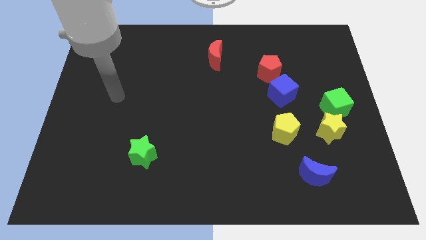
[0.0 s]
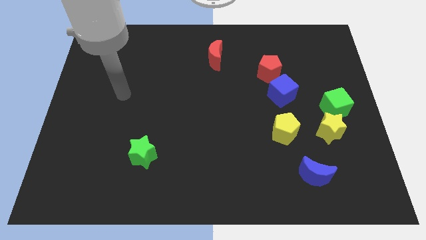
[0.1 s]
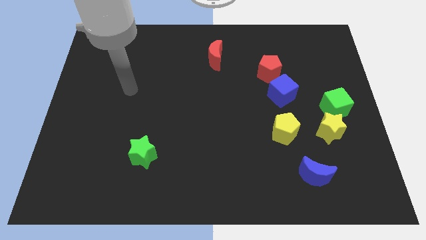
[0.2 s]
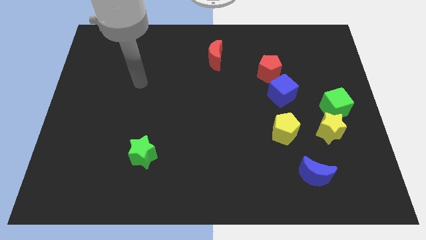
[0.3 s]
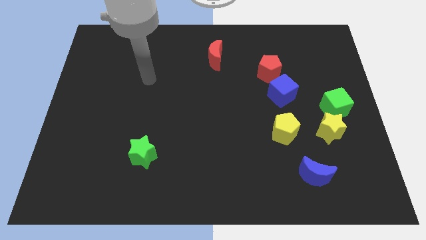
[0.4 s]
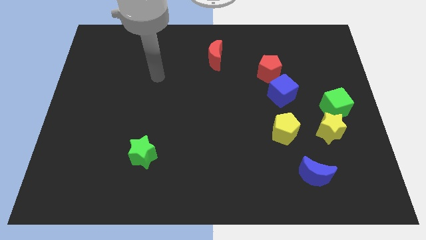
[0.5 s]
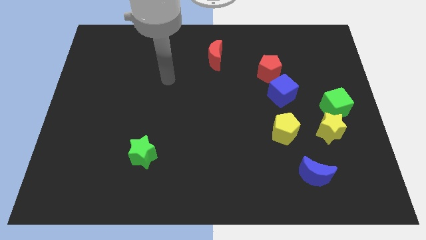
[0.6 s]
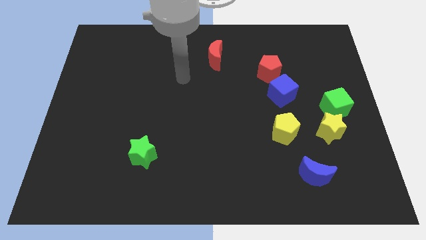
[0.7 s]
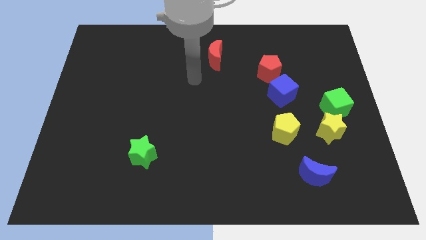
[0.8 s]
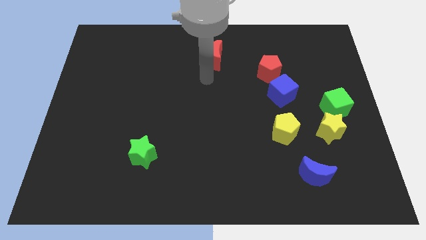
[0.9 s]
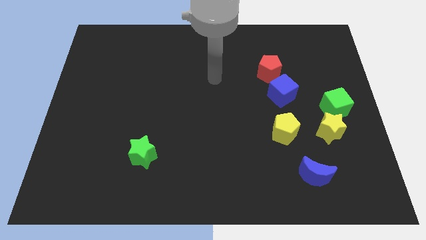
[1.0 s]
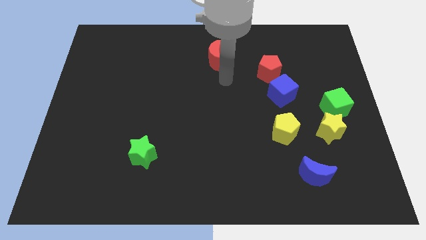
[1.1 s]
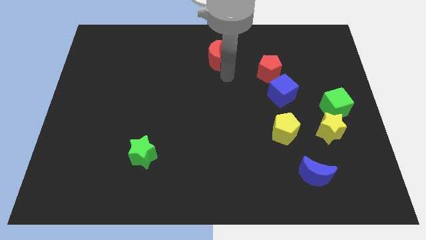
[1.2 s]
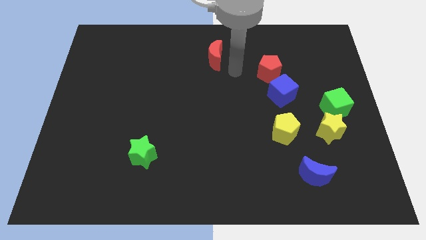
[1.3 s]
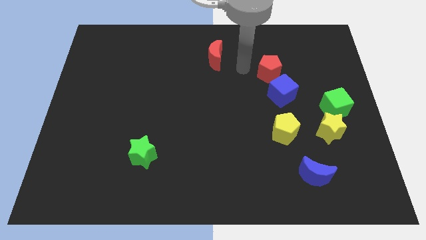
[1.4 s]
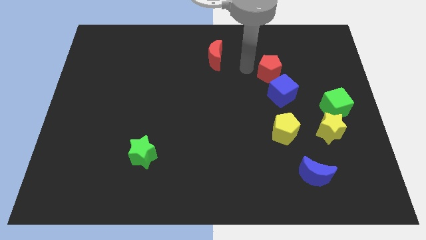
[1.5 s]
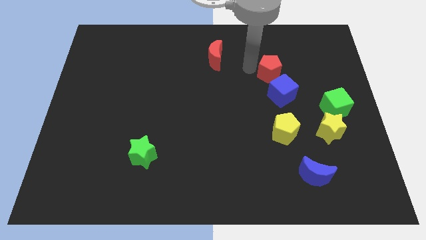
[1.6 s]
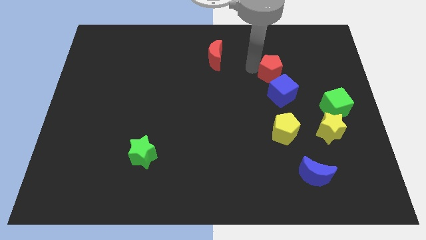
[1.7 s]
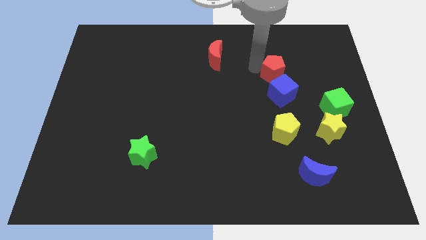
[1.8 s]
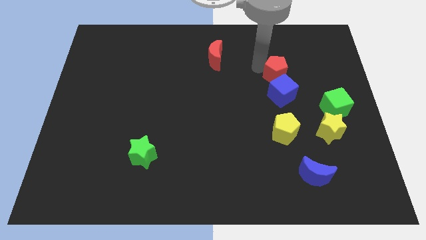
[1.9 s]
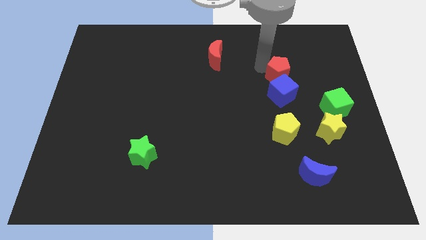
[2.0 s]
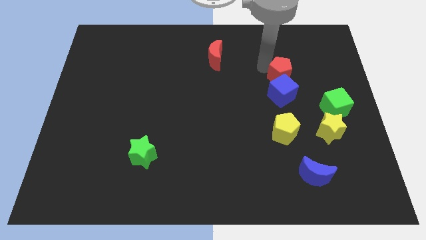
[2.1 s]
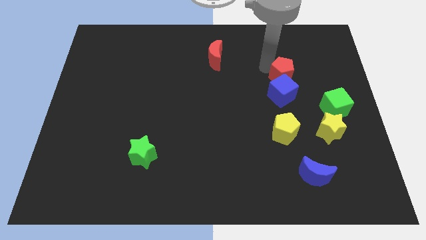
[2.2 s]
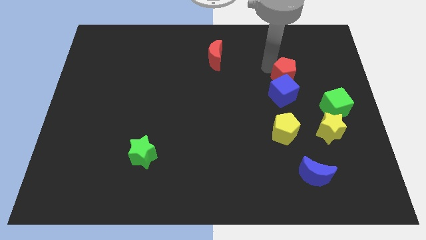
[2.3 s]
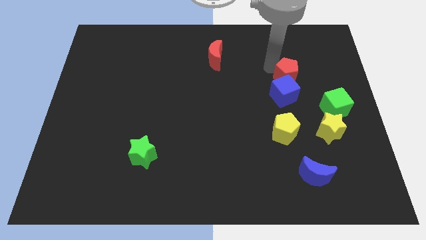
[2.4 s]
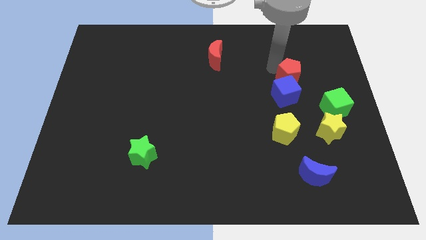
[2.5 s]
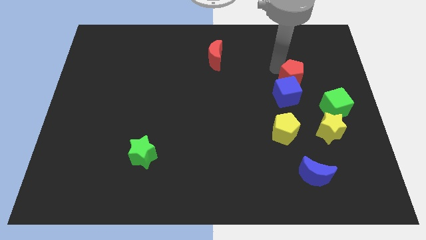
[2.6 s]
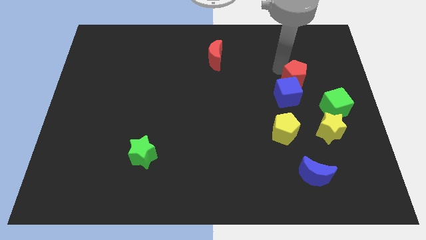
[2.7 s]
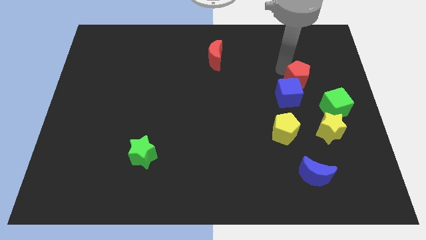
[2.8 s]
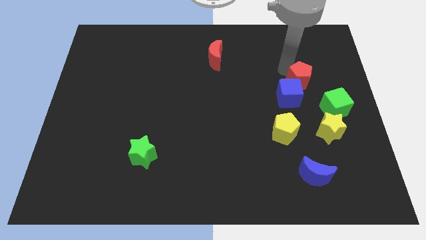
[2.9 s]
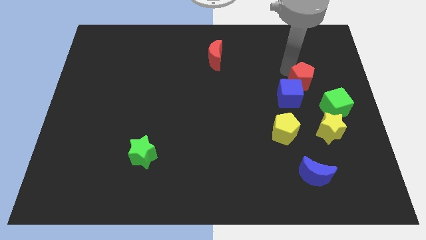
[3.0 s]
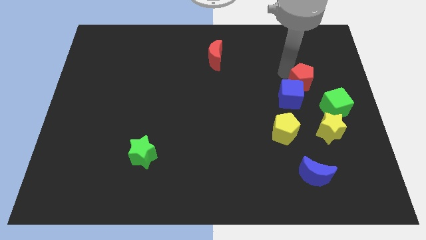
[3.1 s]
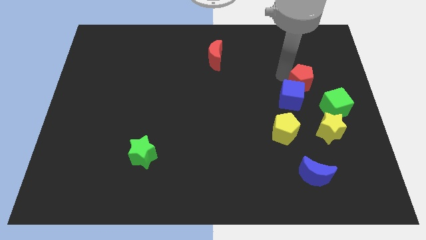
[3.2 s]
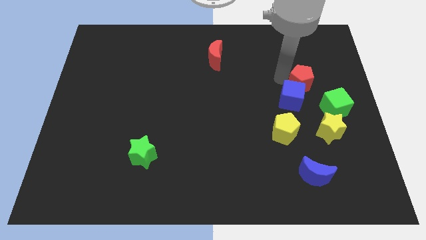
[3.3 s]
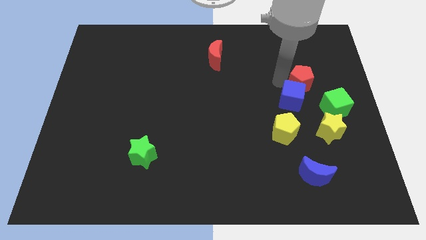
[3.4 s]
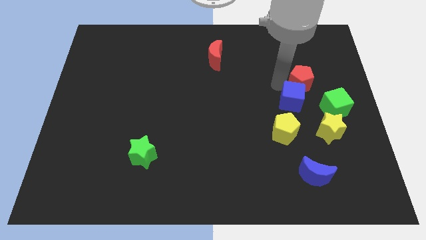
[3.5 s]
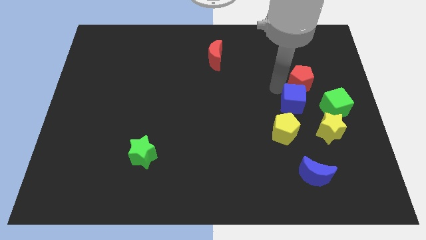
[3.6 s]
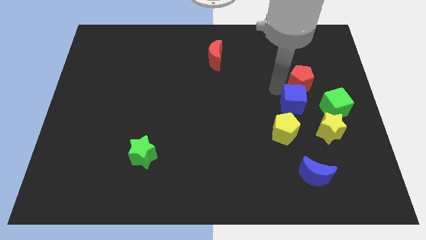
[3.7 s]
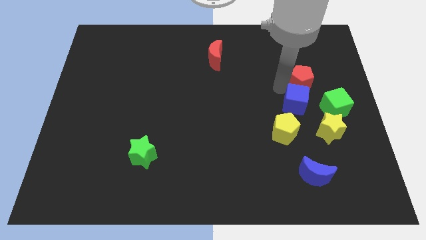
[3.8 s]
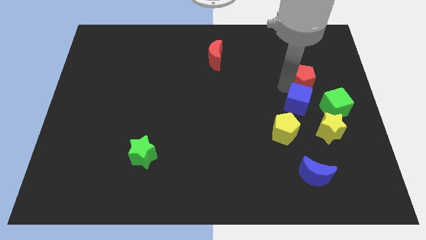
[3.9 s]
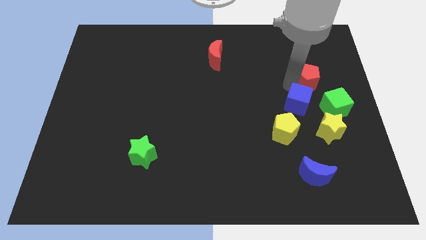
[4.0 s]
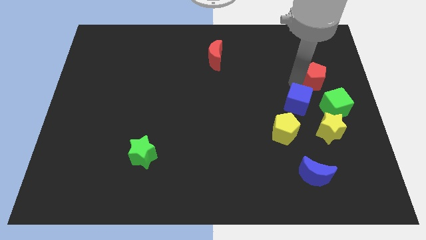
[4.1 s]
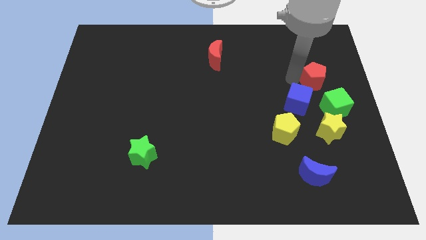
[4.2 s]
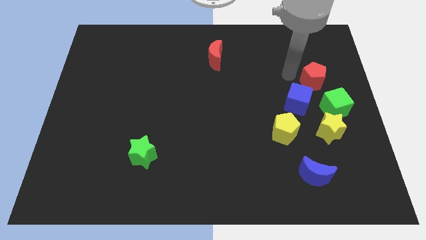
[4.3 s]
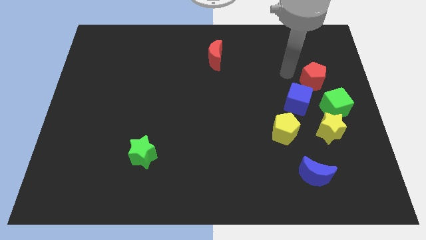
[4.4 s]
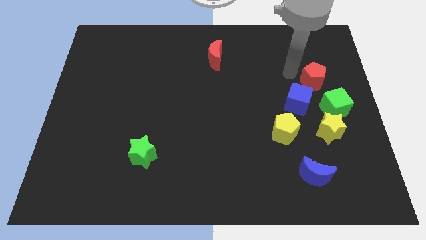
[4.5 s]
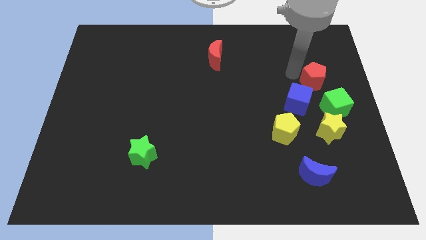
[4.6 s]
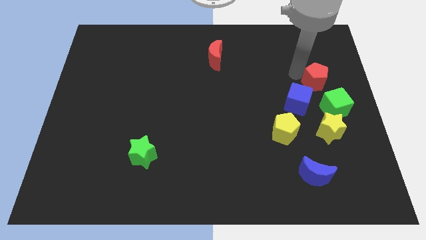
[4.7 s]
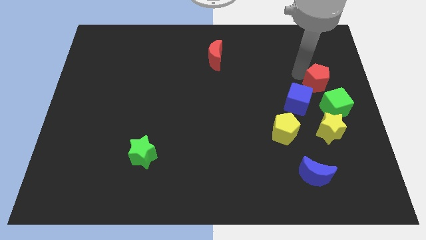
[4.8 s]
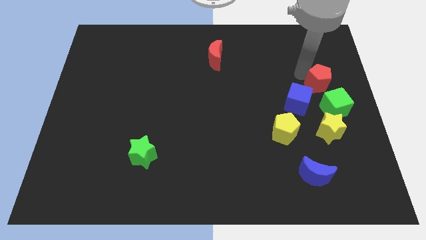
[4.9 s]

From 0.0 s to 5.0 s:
slide the red pentagon to the right side of the board
